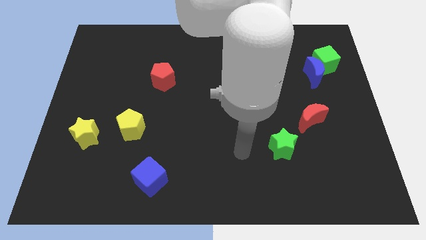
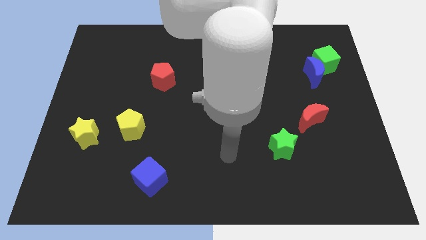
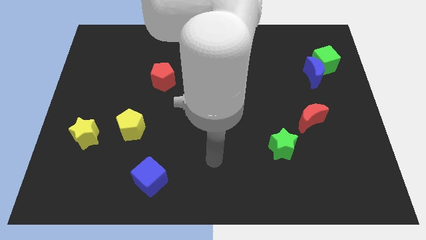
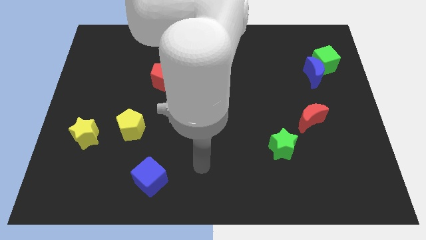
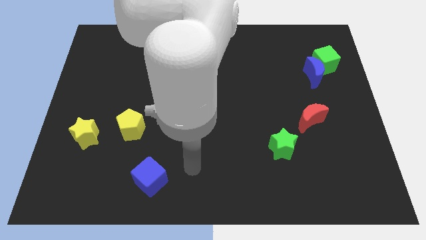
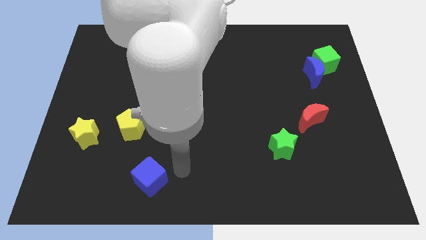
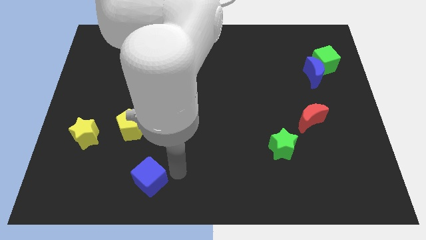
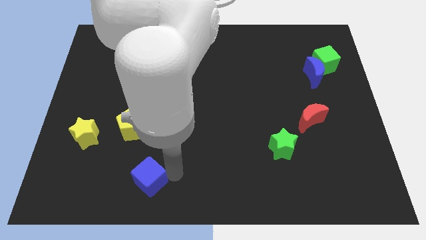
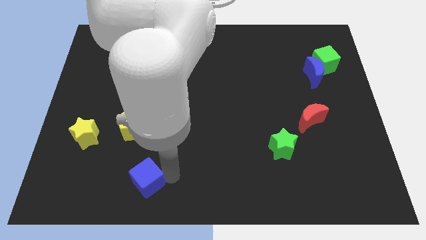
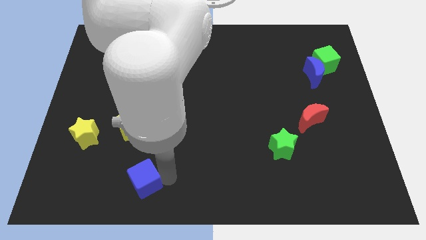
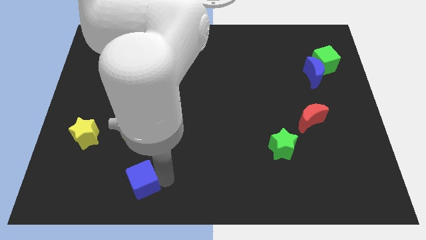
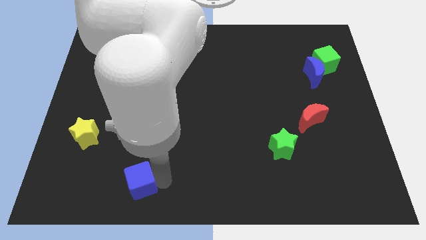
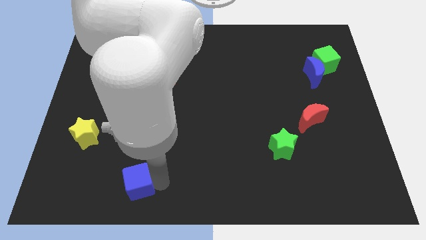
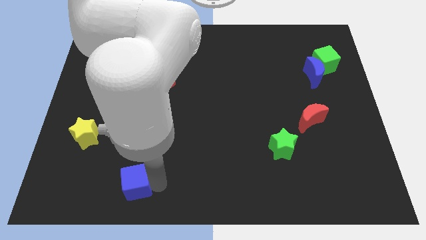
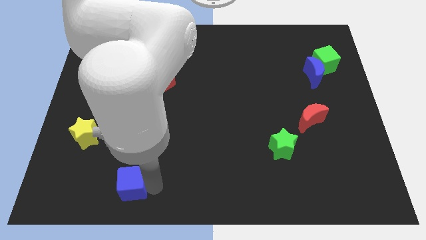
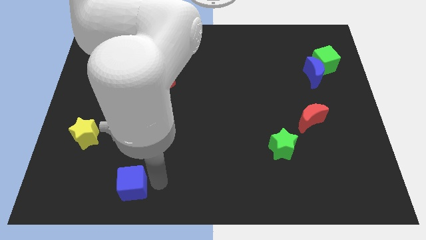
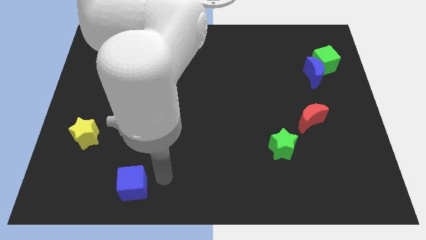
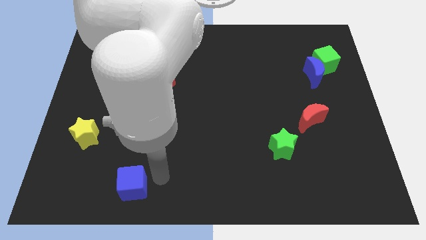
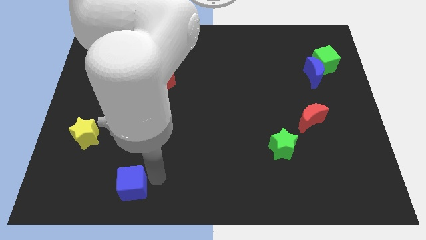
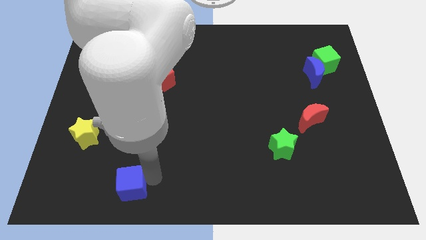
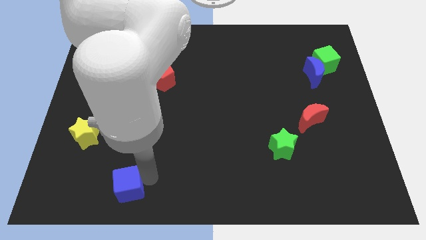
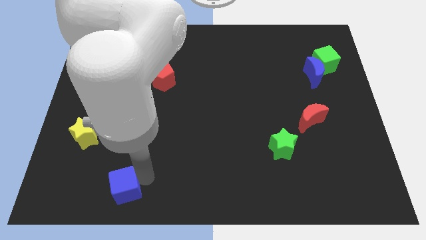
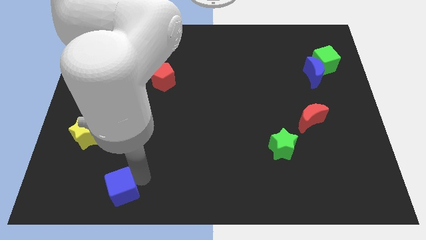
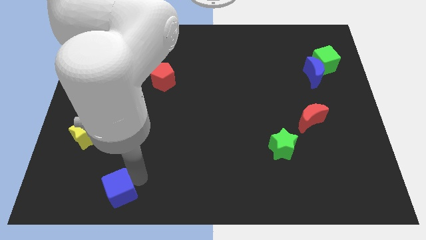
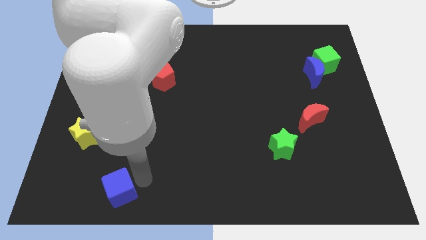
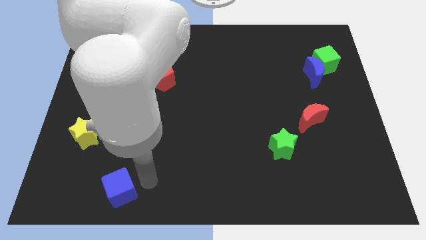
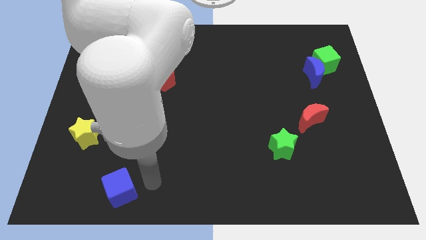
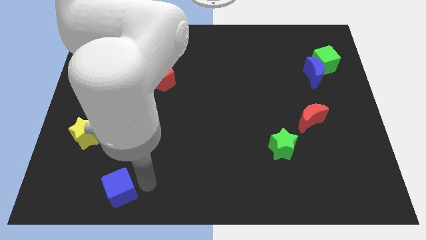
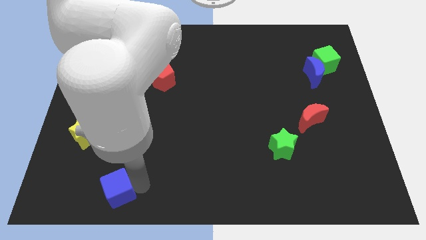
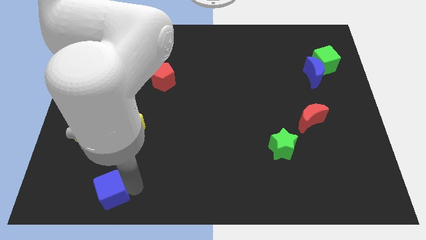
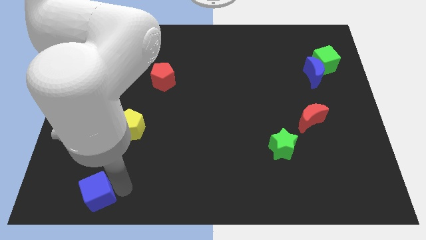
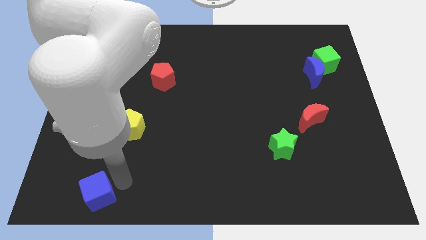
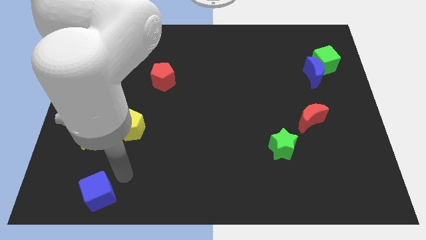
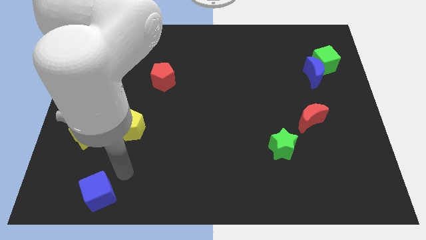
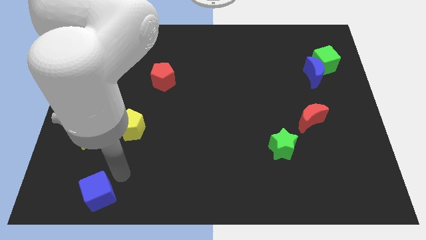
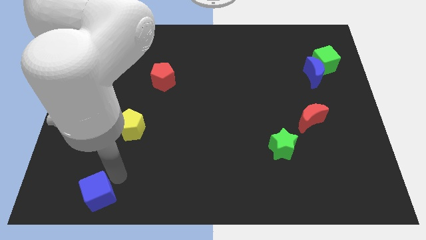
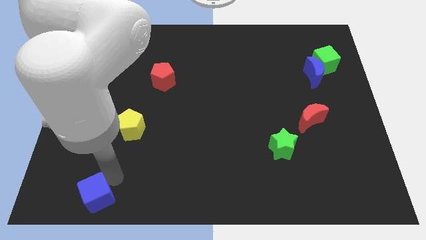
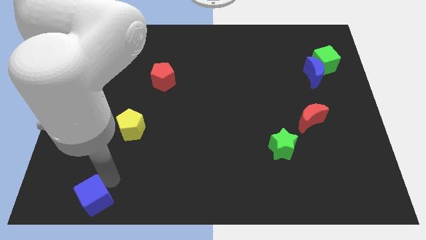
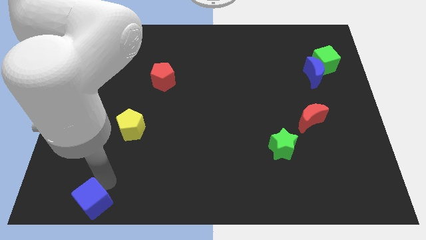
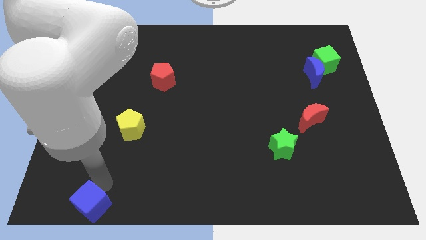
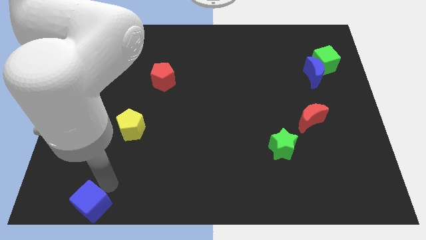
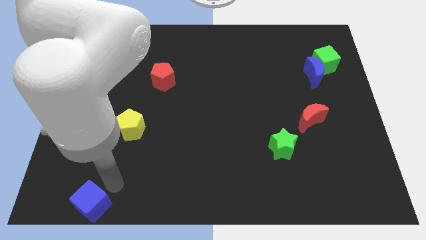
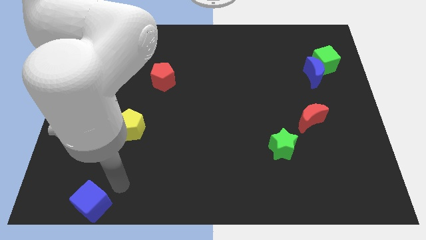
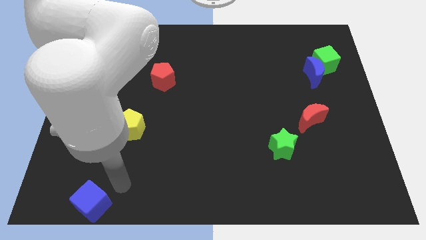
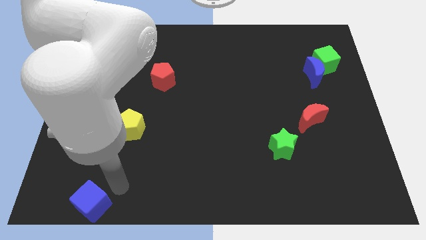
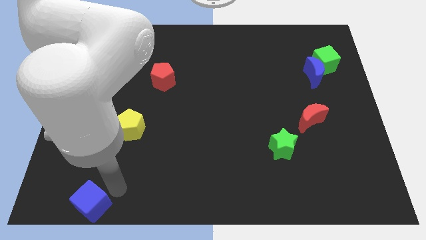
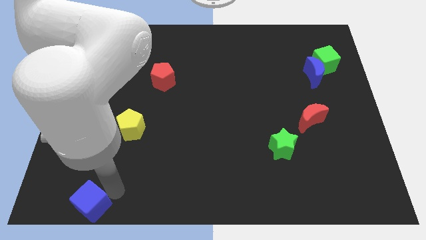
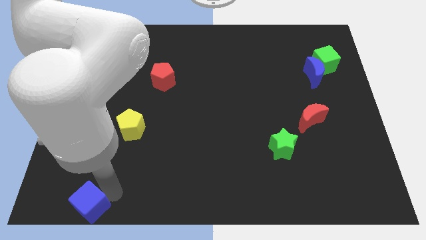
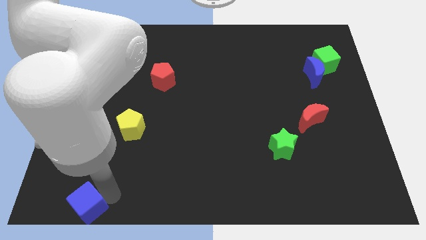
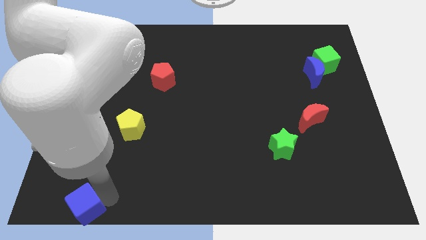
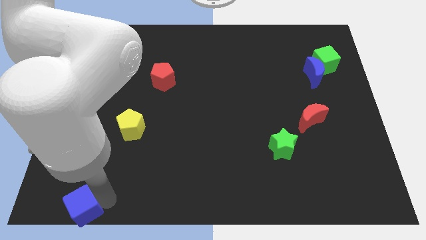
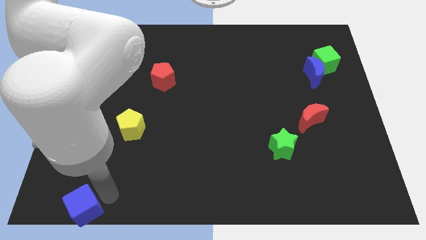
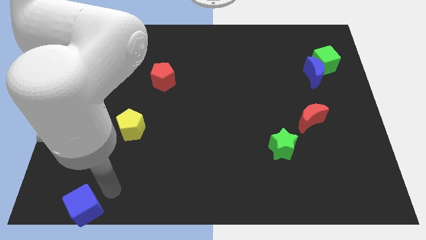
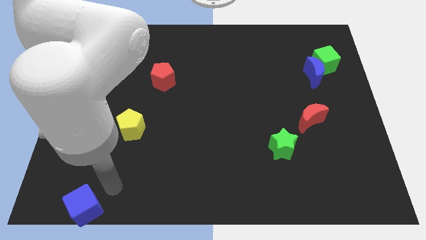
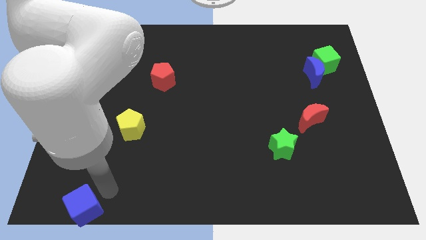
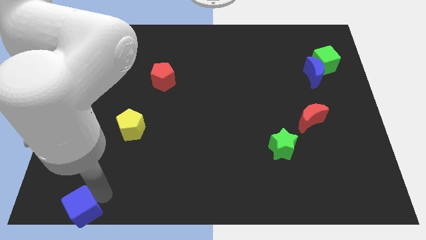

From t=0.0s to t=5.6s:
put the blue cube to the bottom left of the board

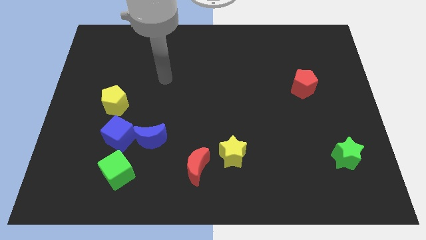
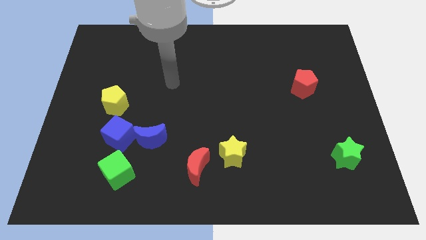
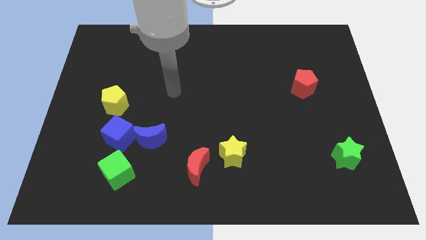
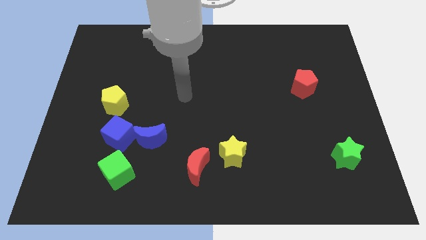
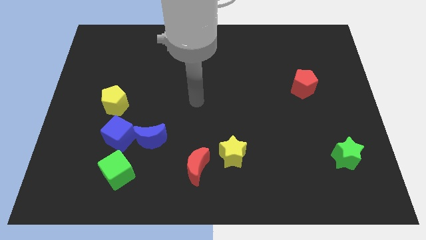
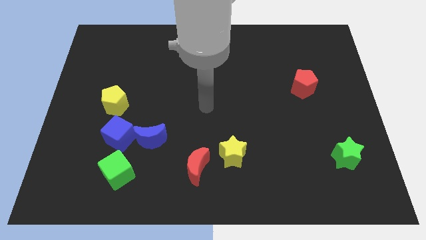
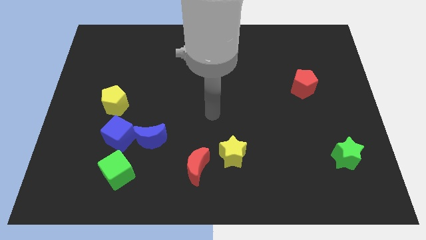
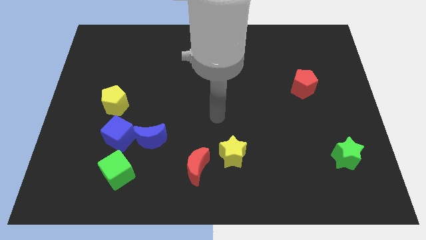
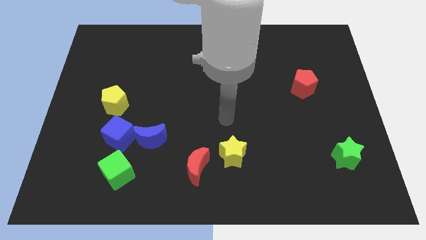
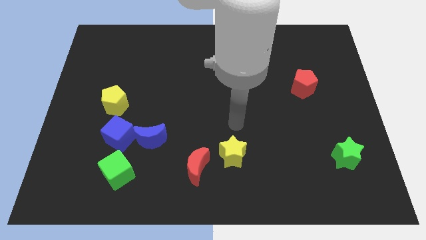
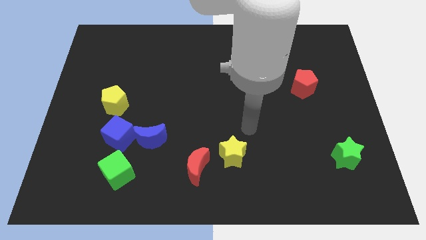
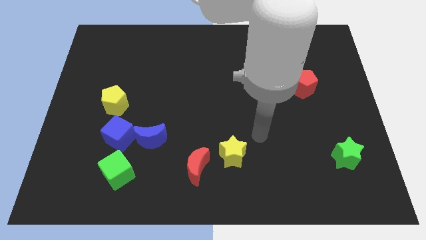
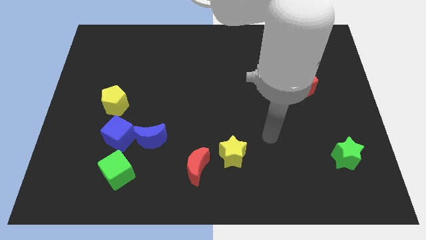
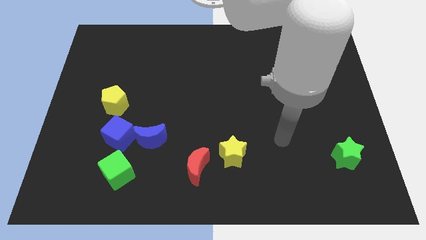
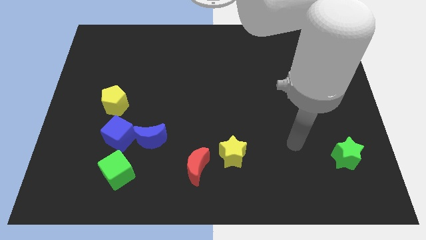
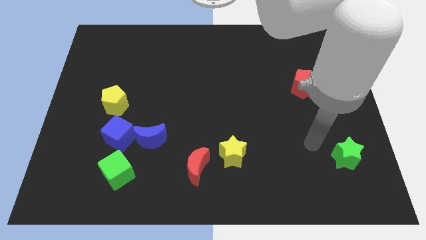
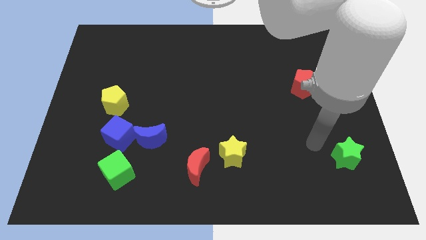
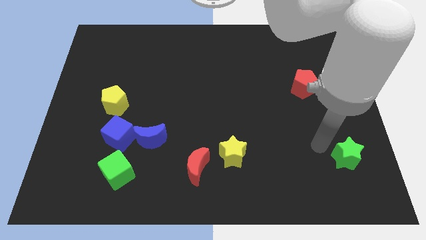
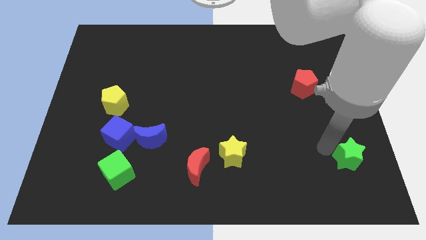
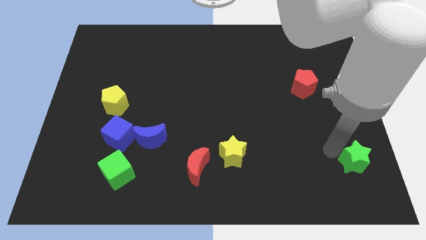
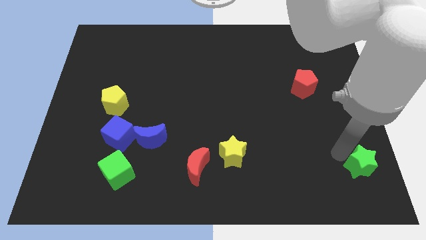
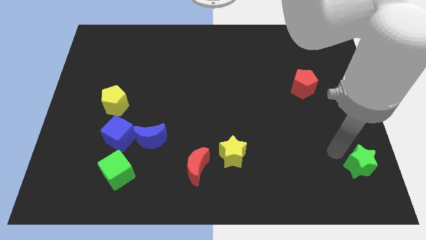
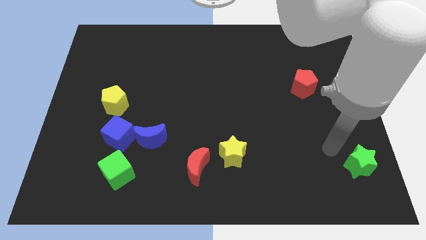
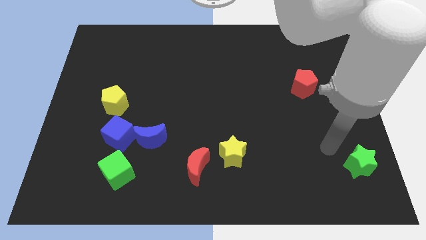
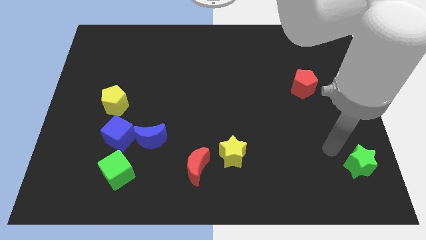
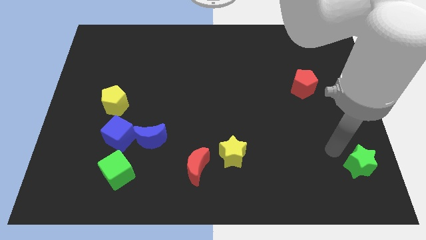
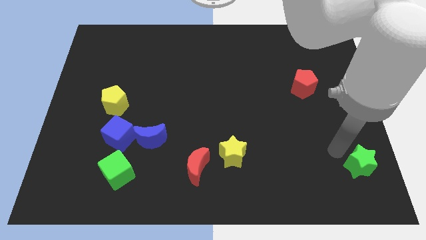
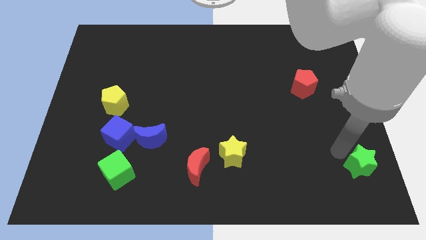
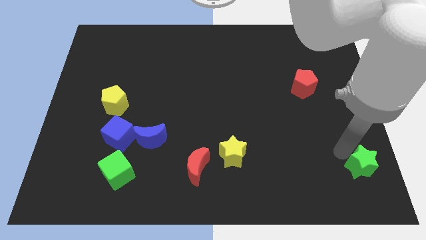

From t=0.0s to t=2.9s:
push the green star to the bottom right of the board
